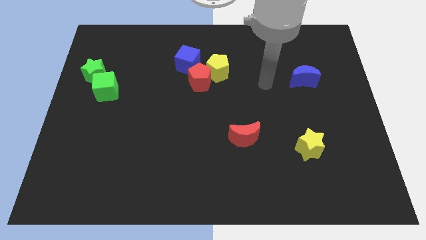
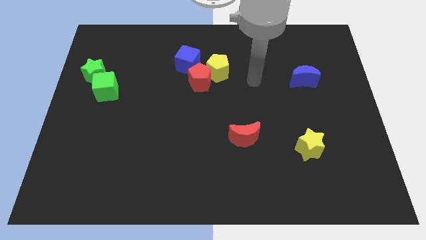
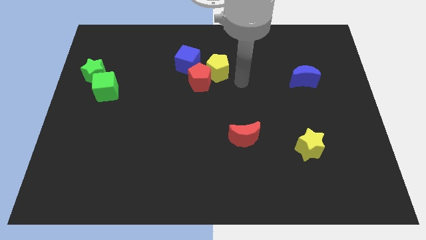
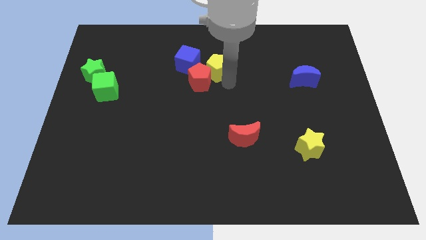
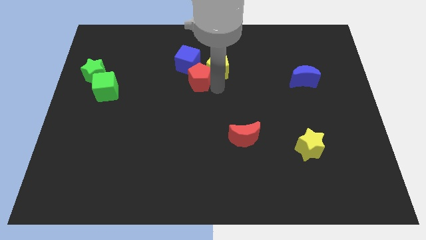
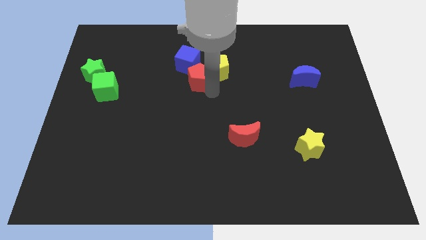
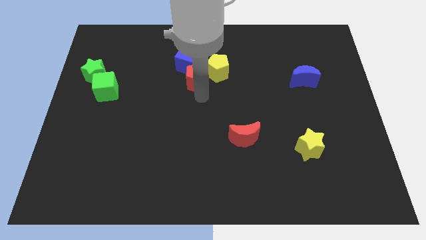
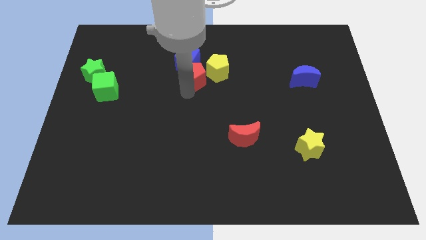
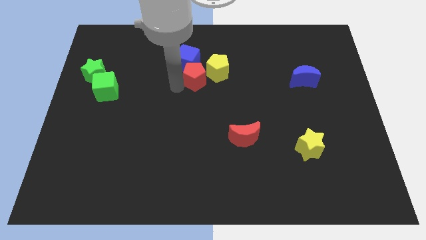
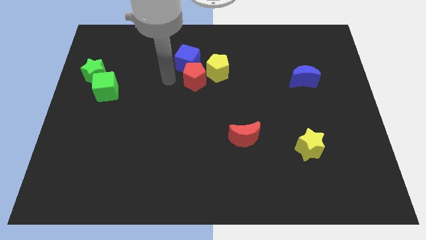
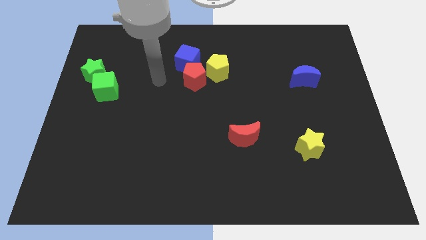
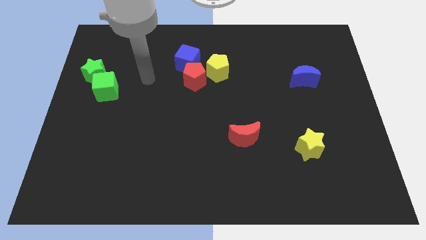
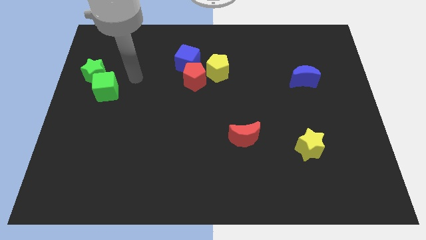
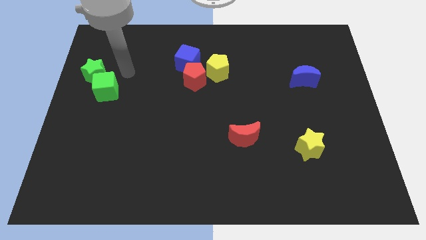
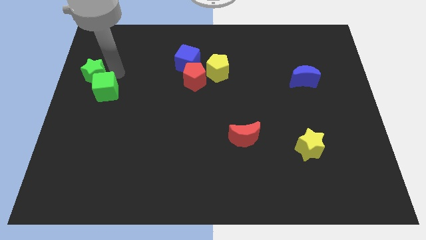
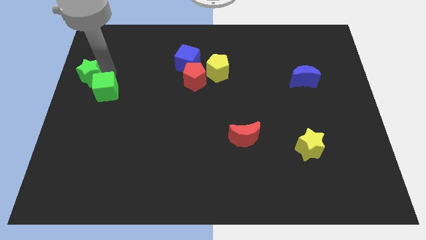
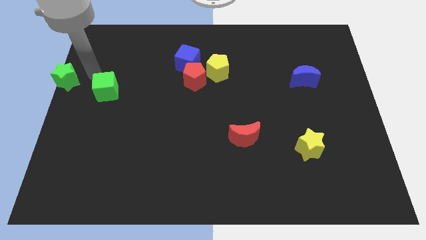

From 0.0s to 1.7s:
separate the green cube from the green star

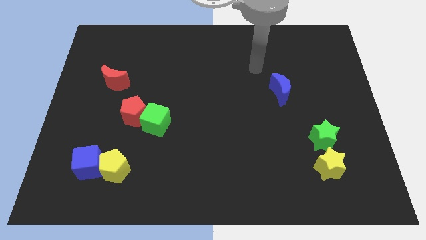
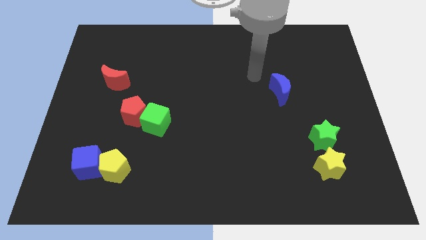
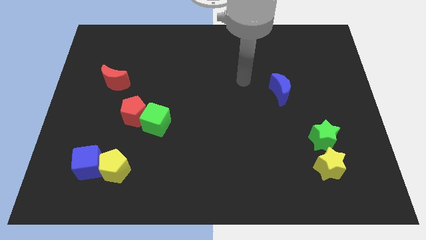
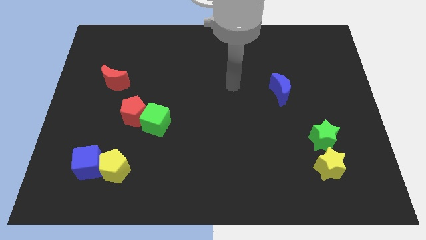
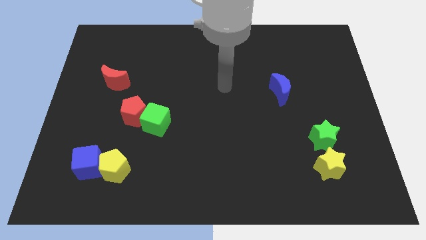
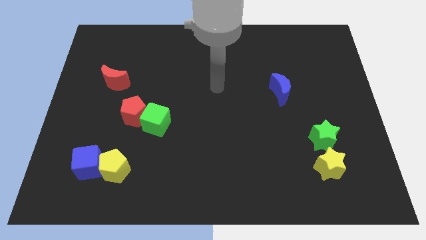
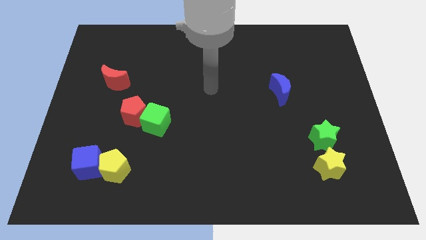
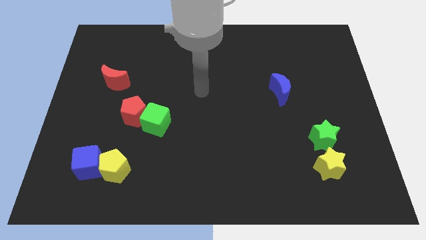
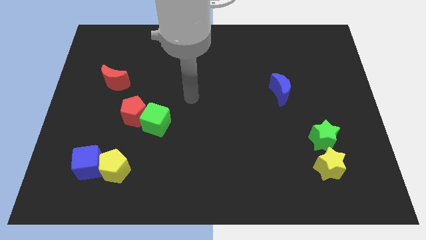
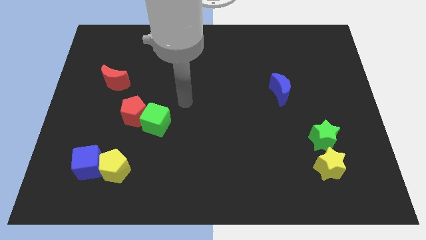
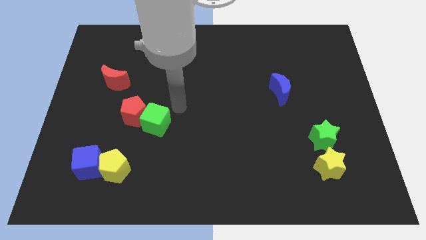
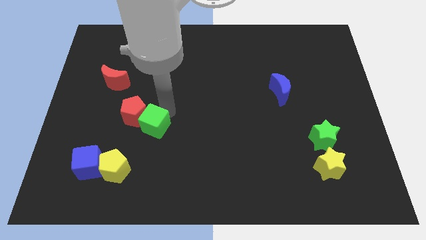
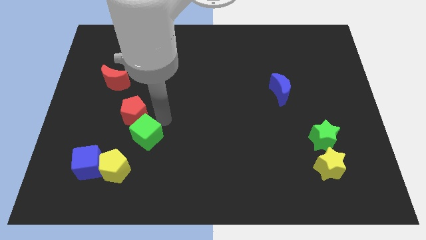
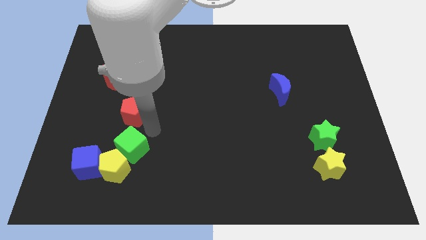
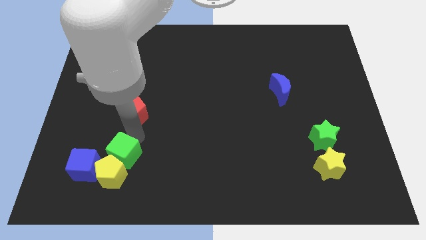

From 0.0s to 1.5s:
move the red pentagon away from the green cube

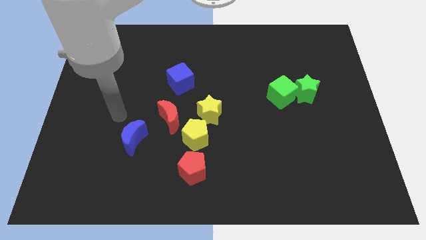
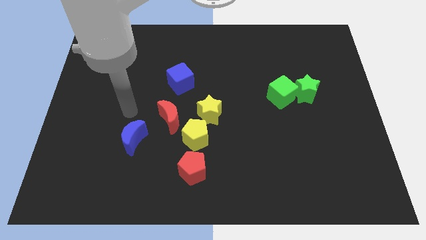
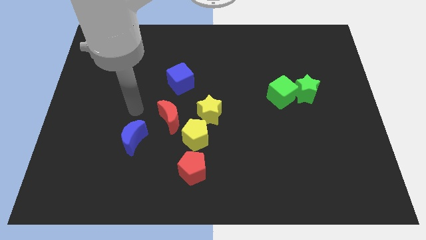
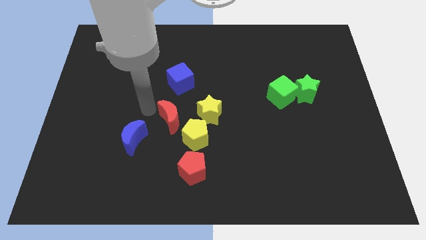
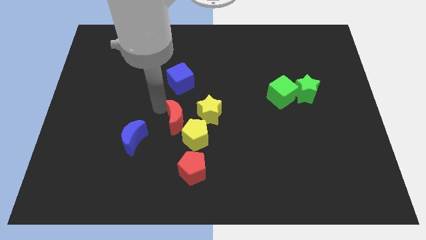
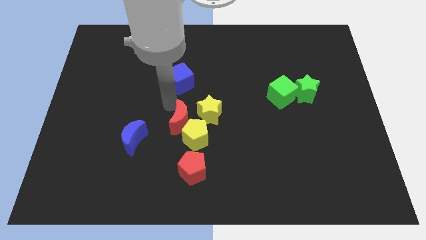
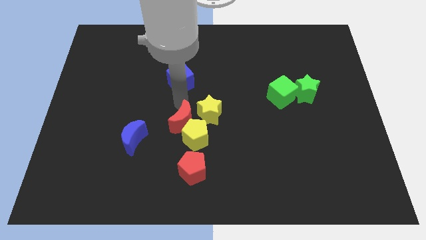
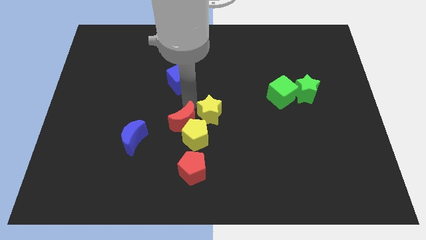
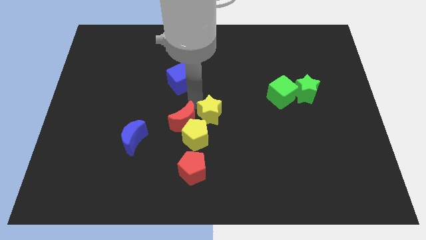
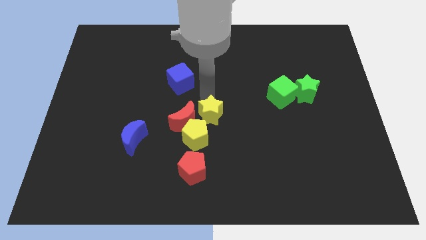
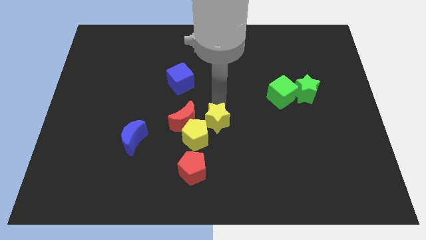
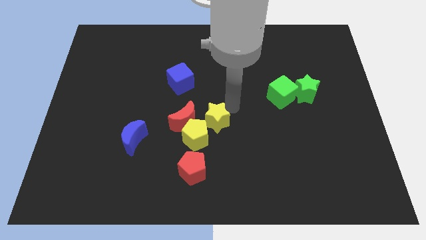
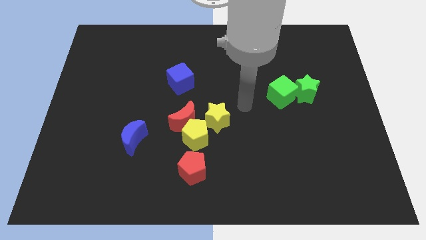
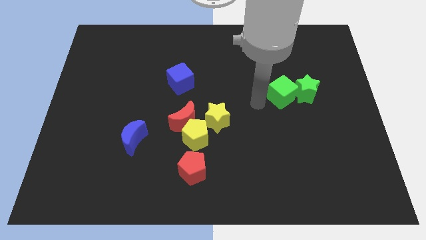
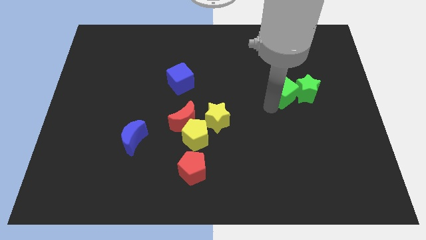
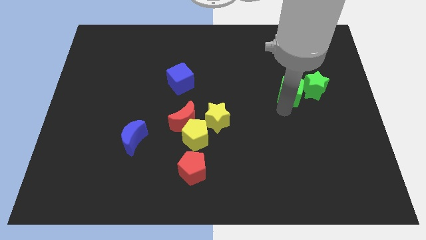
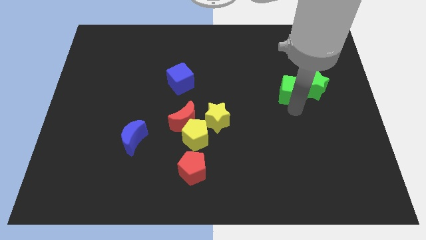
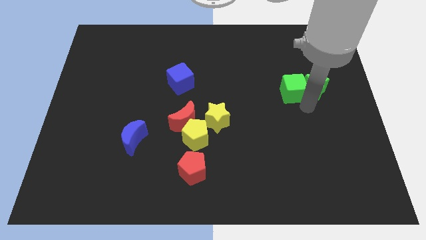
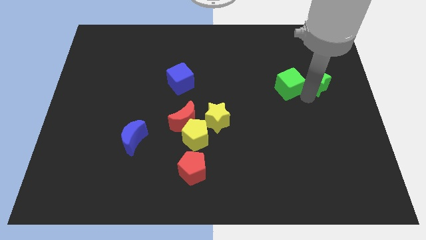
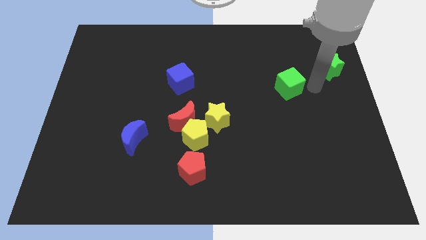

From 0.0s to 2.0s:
pull the green cube apart from the green star

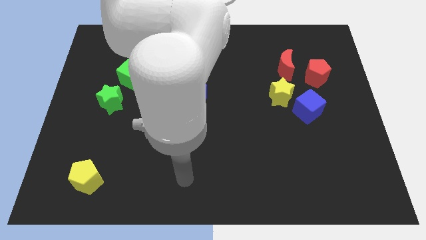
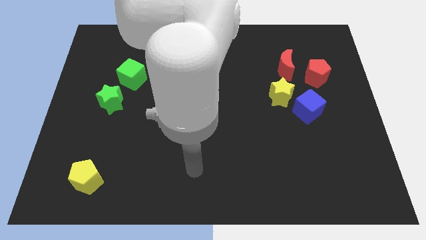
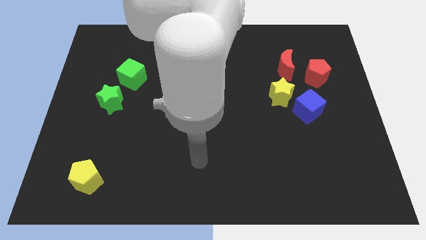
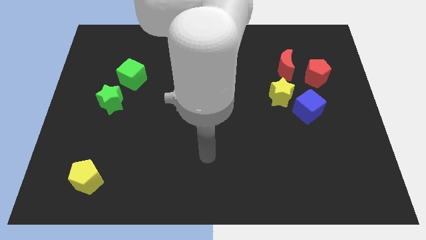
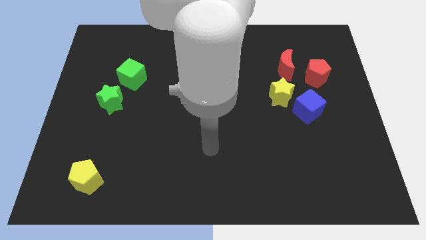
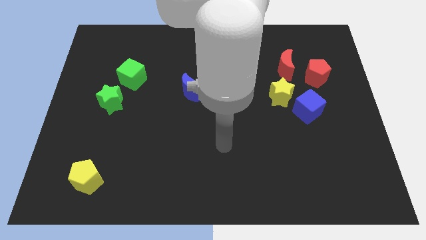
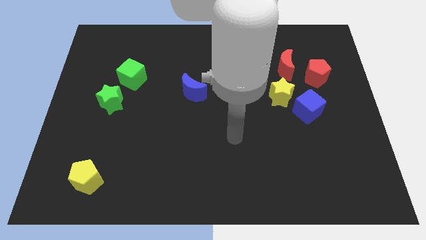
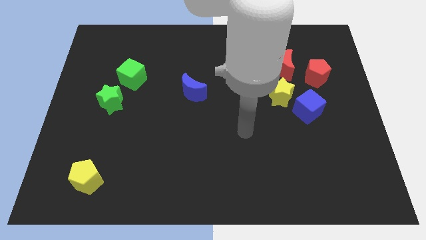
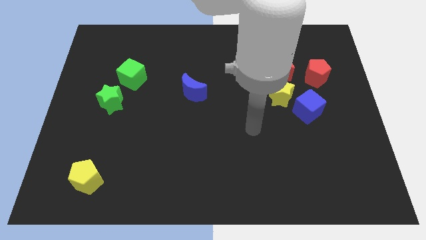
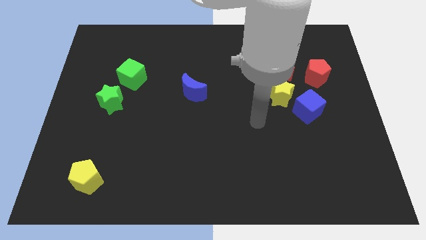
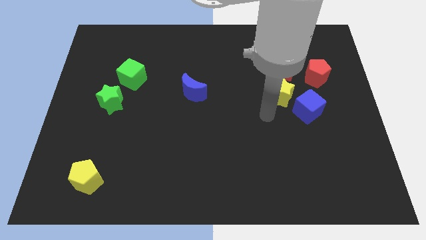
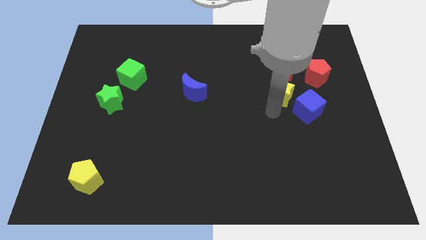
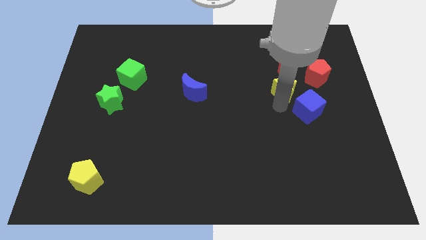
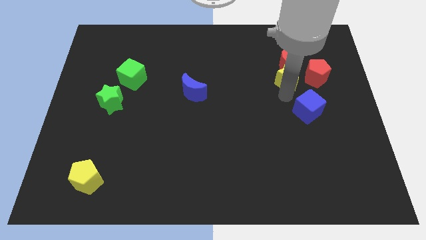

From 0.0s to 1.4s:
pull the blue cube apart from the yellow star

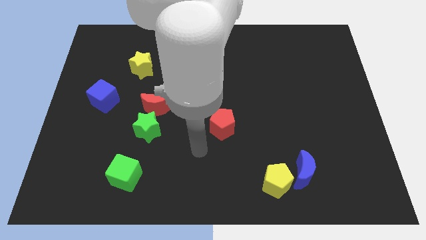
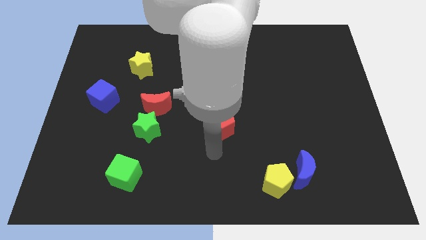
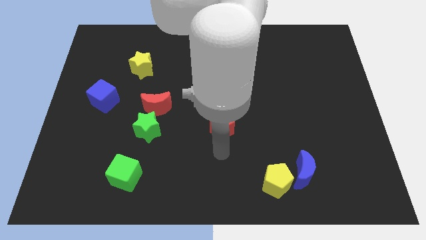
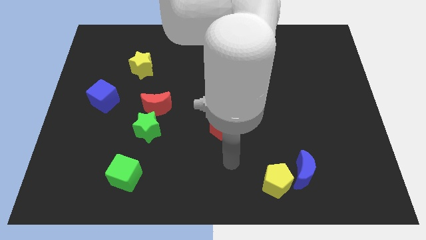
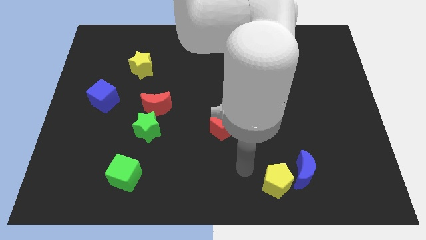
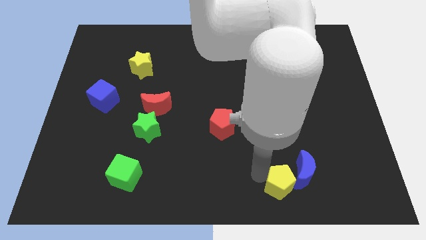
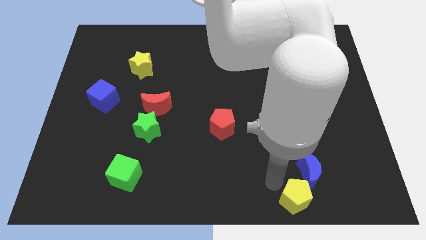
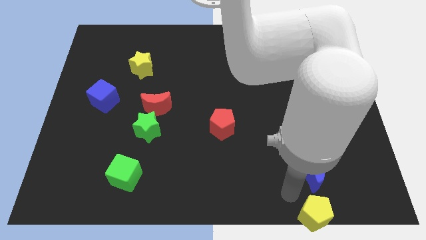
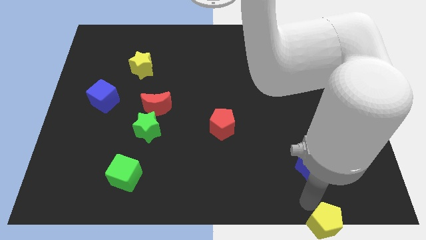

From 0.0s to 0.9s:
pull the blue moon apart from the yellow pentagon

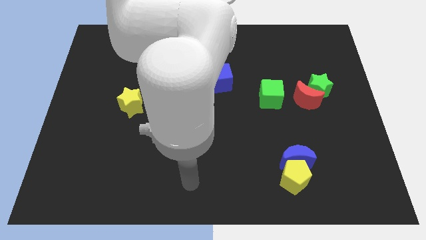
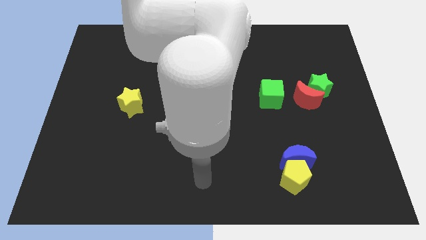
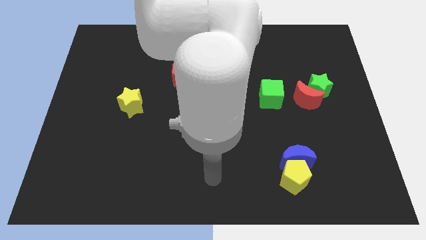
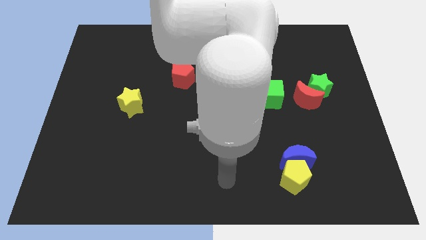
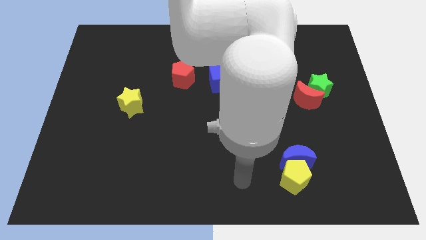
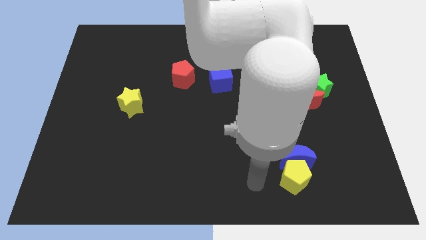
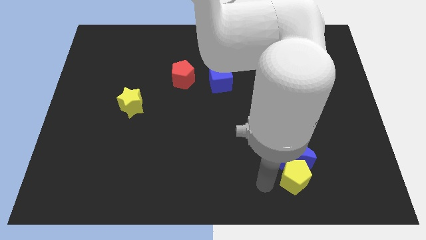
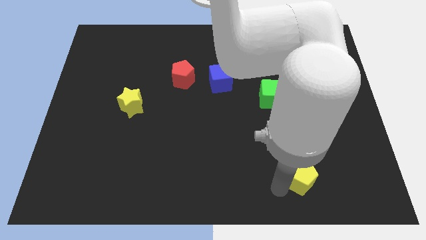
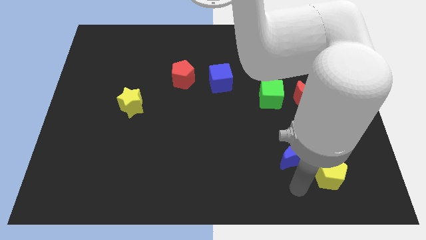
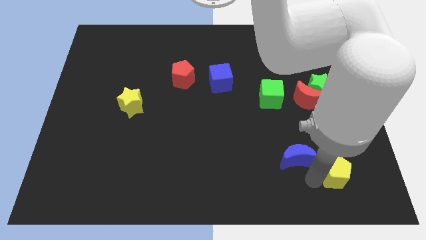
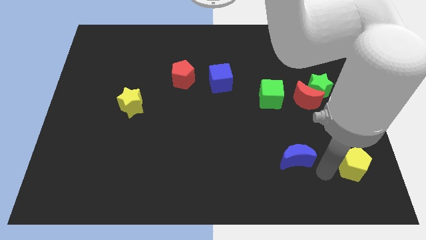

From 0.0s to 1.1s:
separate the blue moon from the yellow pentagon

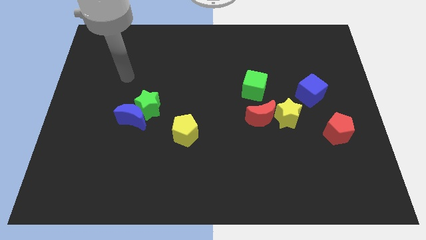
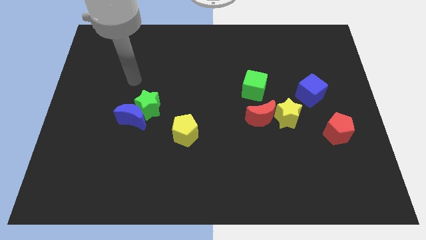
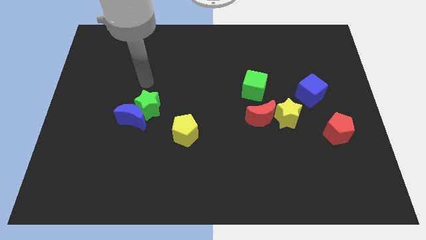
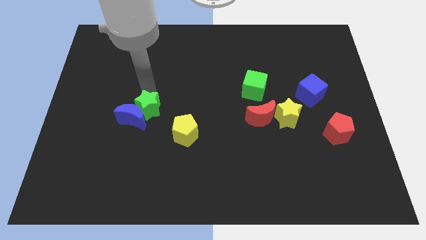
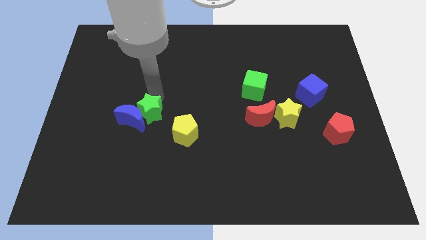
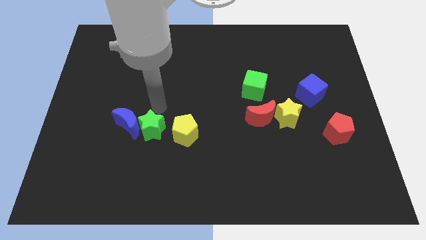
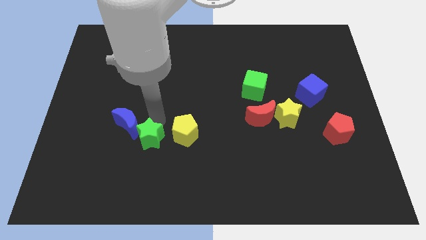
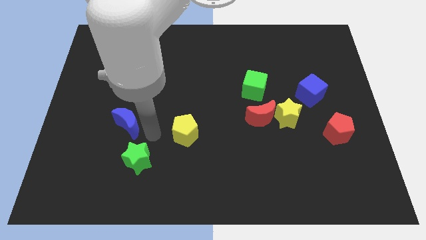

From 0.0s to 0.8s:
move the blue moon away from the green star
